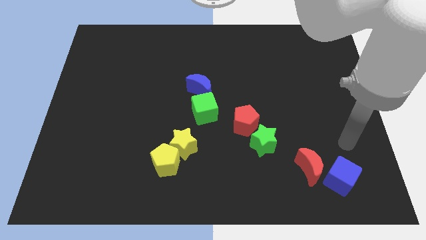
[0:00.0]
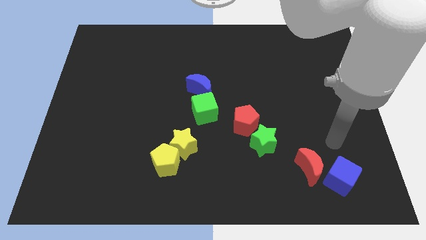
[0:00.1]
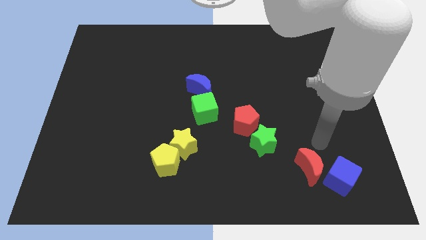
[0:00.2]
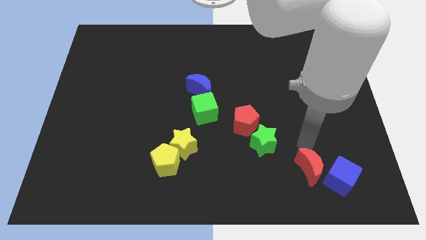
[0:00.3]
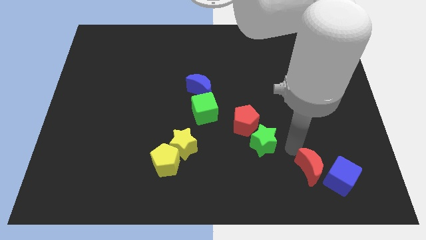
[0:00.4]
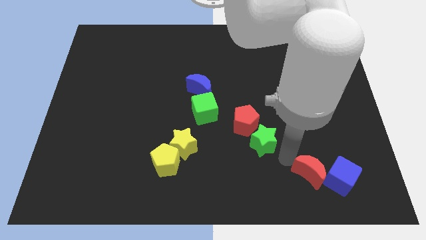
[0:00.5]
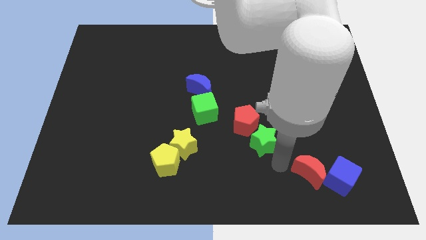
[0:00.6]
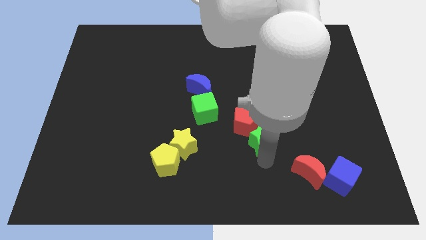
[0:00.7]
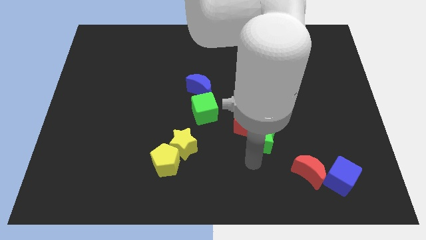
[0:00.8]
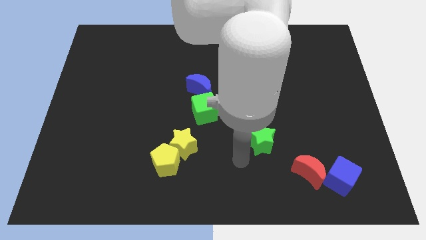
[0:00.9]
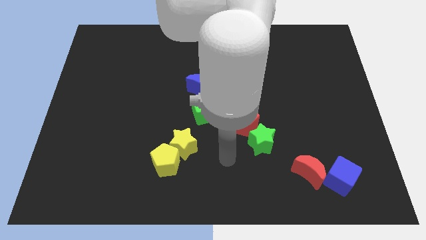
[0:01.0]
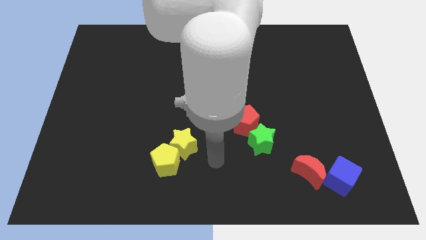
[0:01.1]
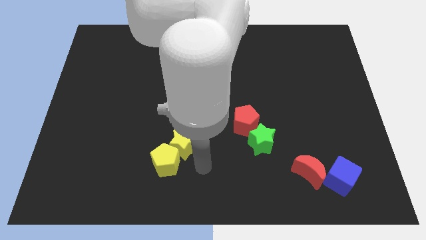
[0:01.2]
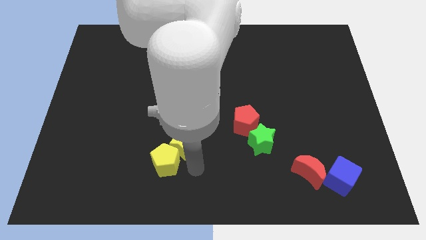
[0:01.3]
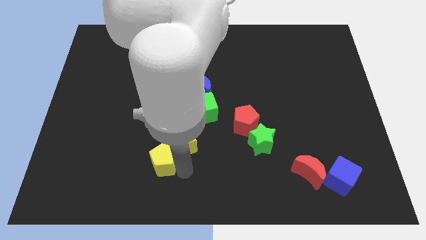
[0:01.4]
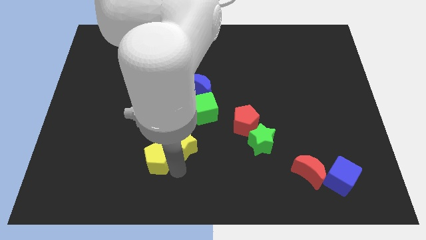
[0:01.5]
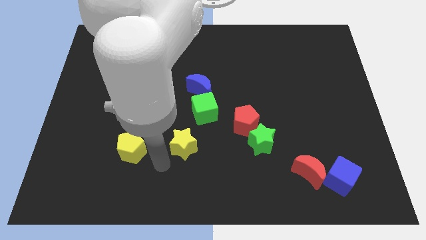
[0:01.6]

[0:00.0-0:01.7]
separate the yellow star from the yellow pentagon

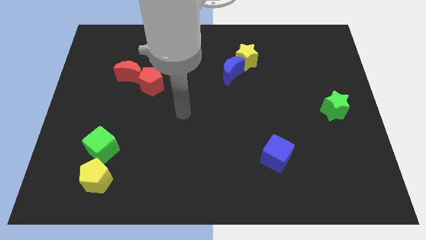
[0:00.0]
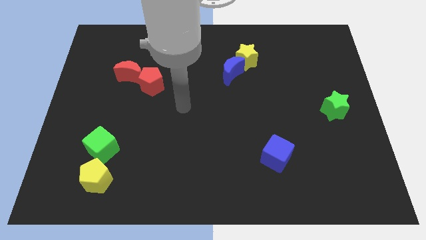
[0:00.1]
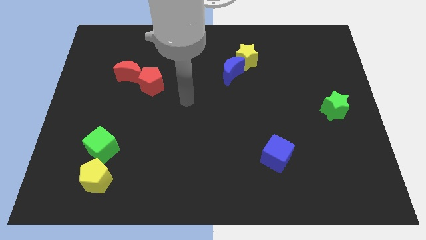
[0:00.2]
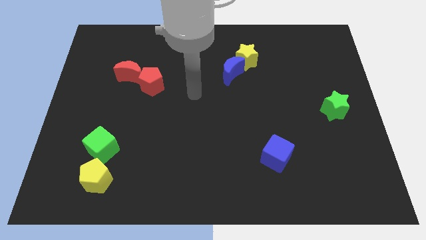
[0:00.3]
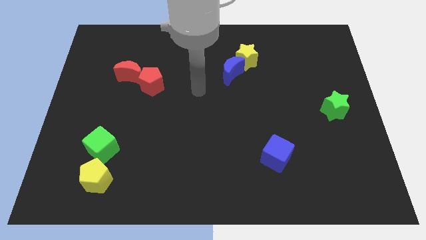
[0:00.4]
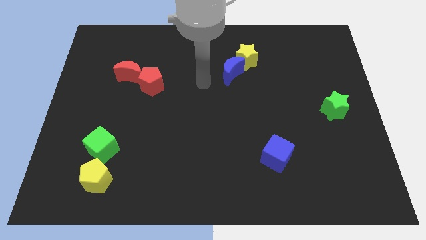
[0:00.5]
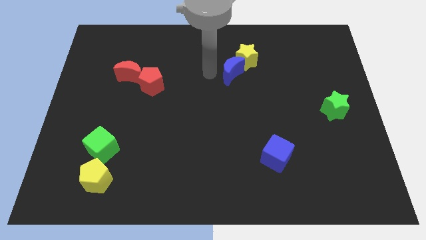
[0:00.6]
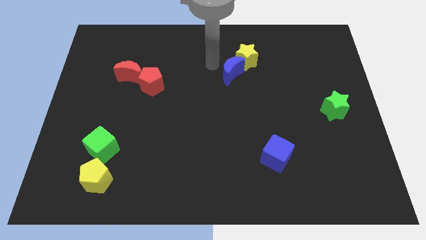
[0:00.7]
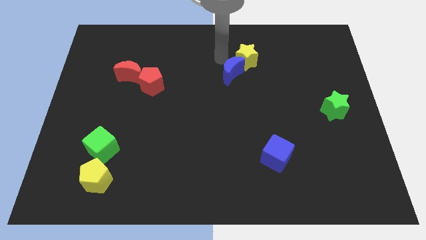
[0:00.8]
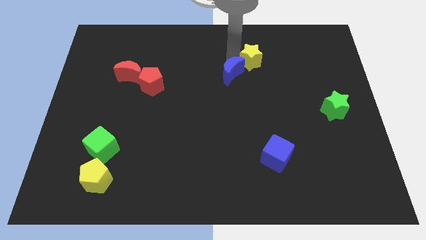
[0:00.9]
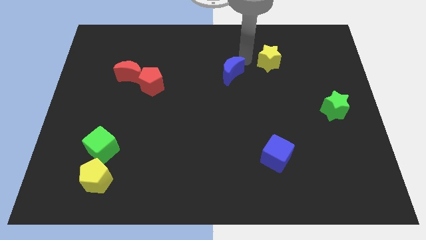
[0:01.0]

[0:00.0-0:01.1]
move the blue moon away from the yellow star

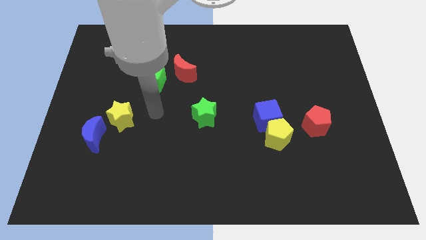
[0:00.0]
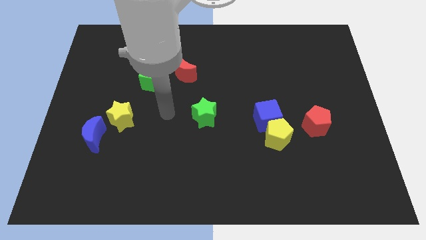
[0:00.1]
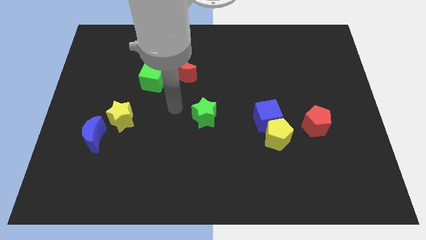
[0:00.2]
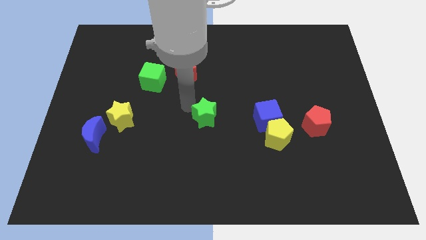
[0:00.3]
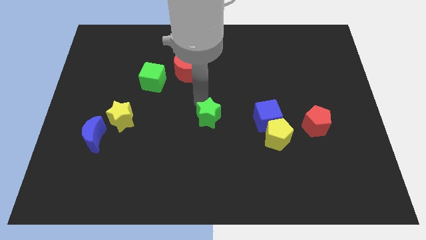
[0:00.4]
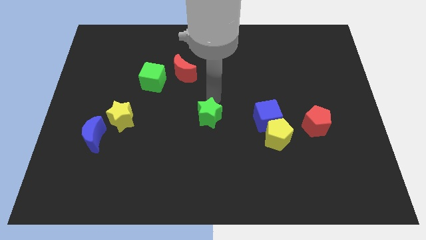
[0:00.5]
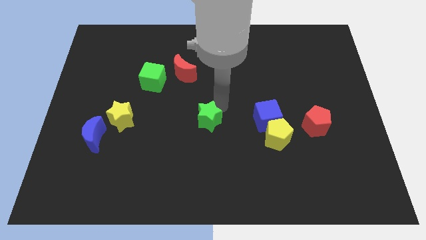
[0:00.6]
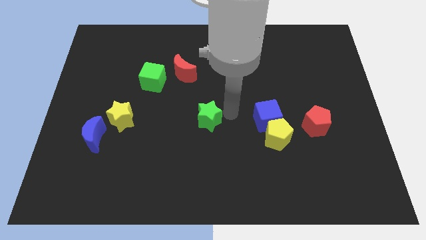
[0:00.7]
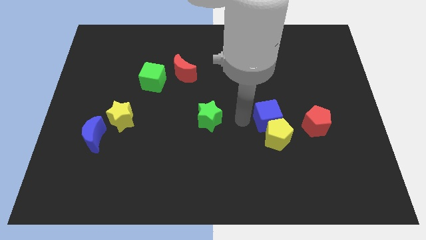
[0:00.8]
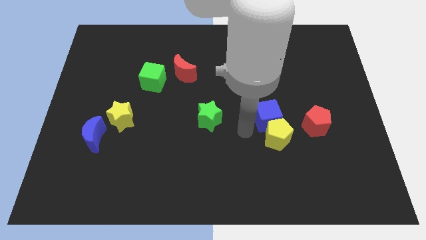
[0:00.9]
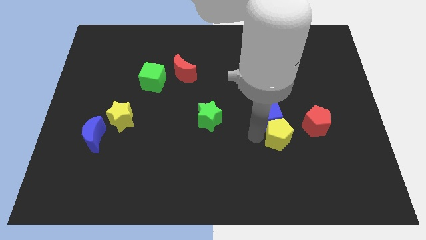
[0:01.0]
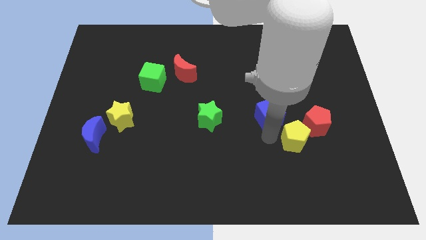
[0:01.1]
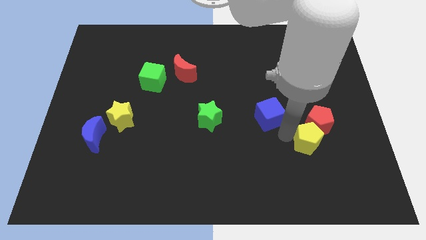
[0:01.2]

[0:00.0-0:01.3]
move the blue cube away from the yellow pentagon

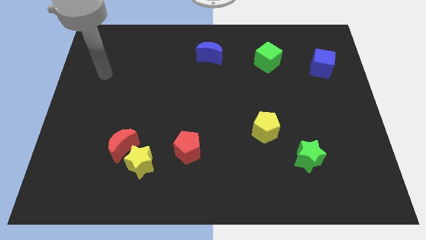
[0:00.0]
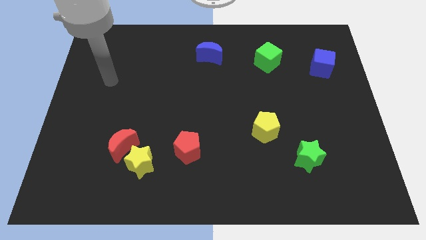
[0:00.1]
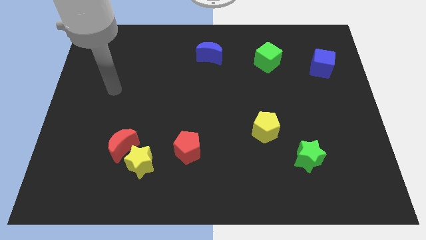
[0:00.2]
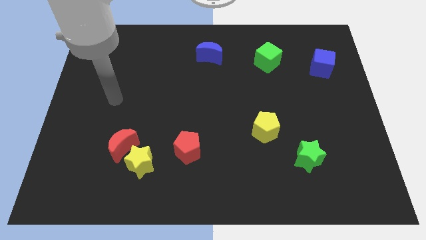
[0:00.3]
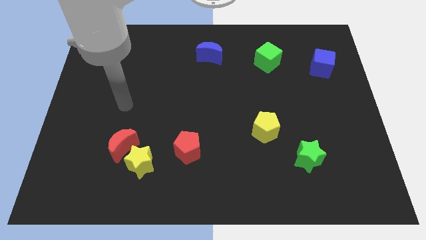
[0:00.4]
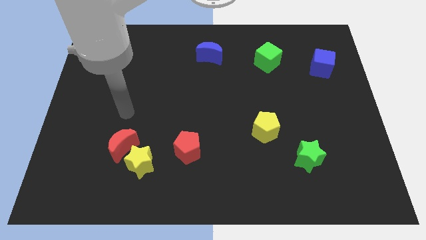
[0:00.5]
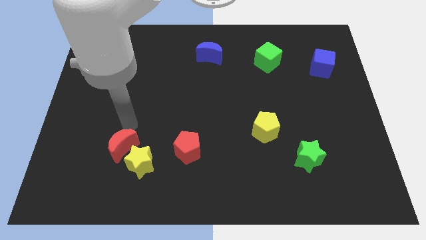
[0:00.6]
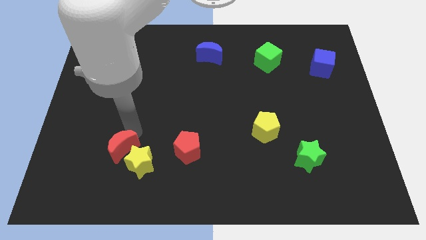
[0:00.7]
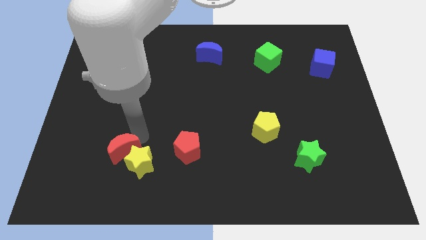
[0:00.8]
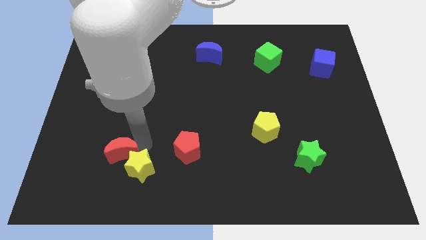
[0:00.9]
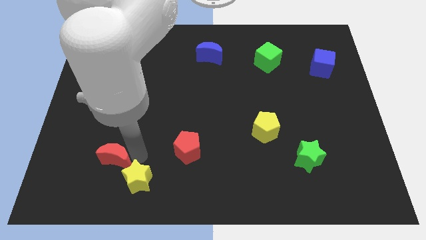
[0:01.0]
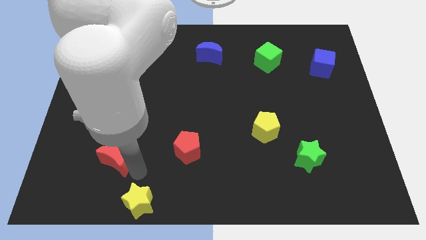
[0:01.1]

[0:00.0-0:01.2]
pull the red moon apart from the yellow star

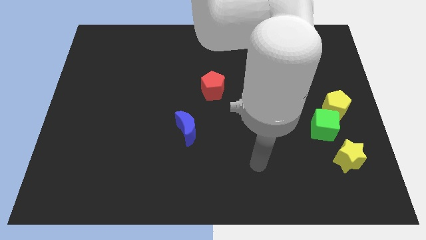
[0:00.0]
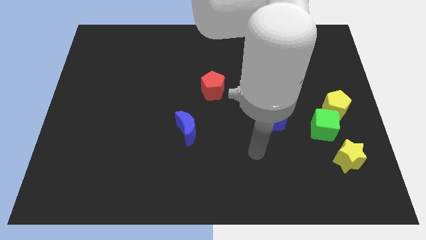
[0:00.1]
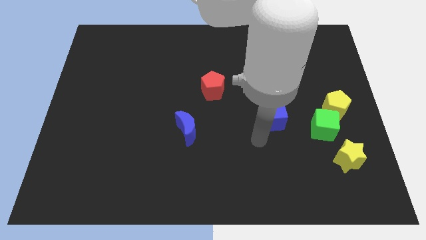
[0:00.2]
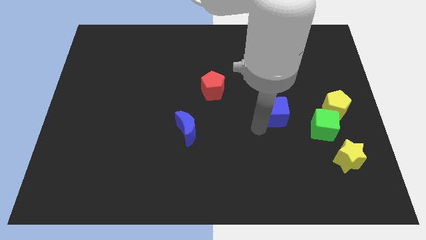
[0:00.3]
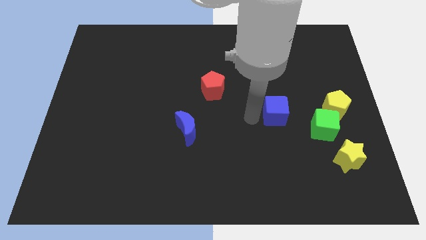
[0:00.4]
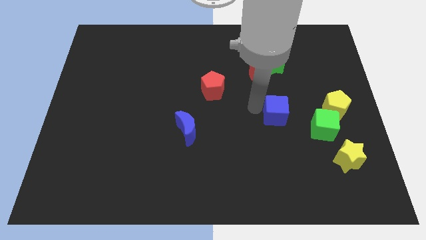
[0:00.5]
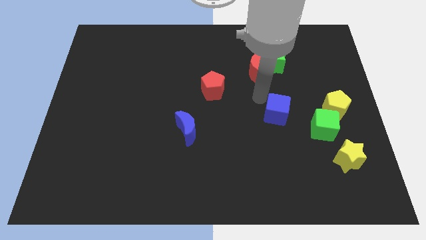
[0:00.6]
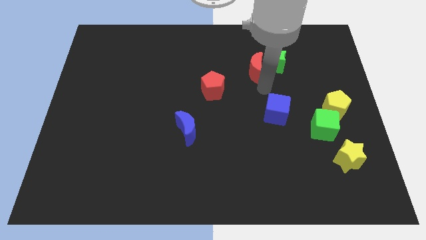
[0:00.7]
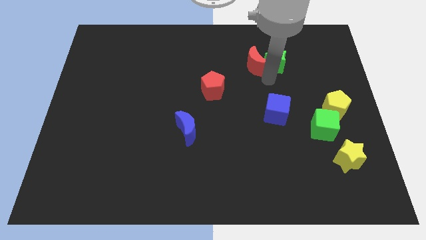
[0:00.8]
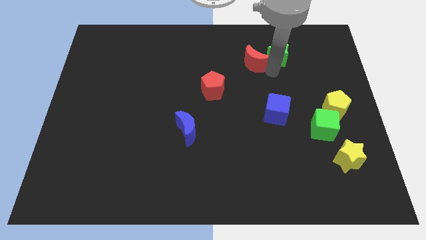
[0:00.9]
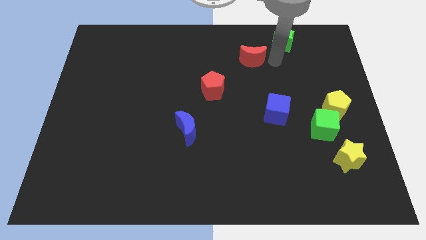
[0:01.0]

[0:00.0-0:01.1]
move the red moon away from the green star

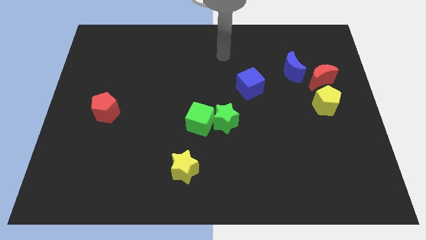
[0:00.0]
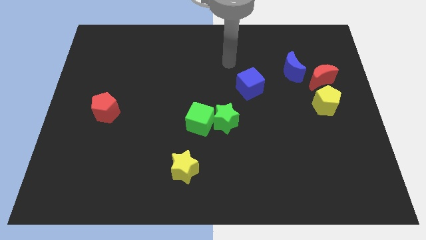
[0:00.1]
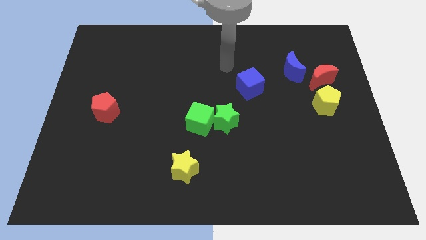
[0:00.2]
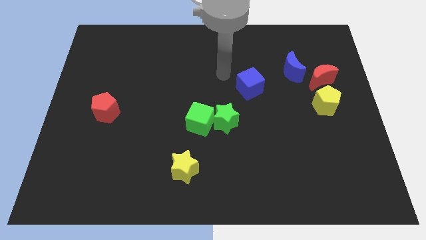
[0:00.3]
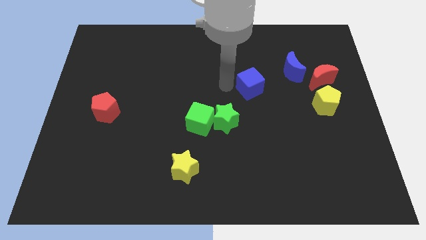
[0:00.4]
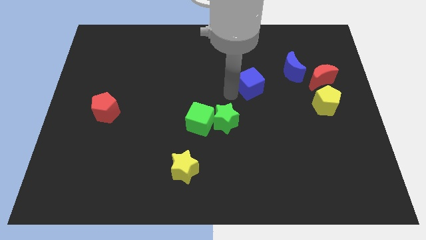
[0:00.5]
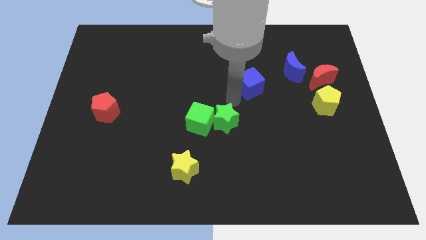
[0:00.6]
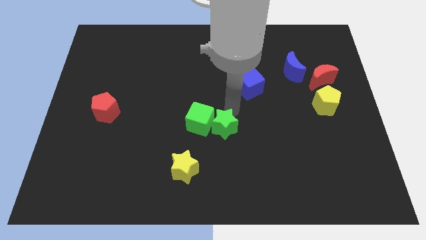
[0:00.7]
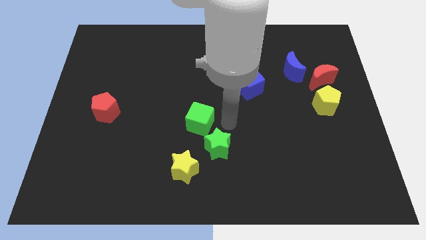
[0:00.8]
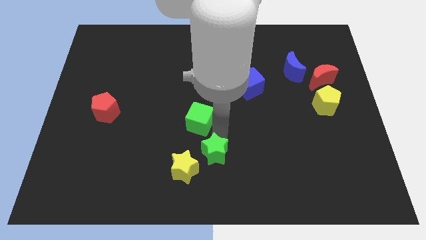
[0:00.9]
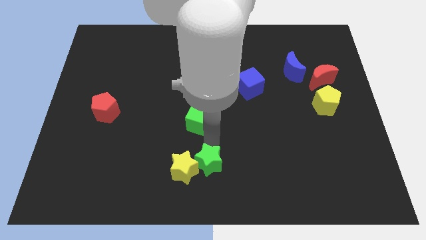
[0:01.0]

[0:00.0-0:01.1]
move the green cube away from the green star

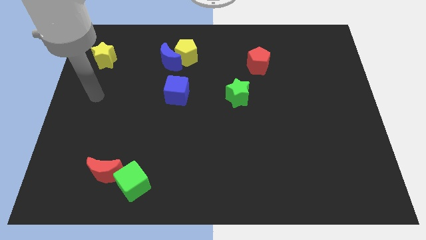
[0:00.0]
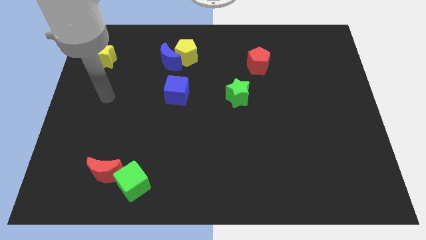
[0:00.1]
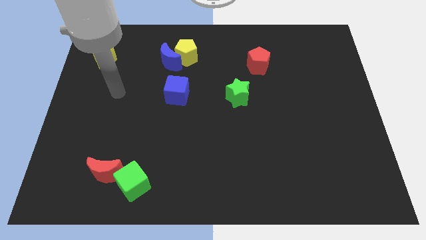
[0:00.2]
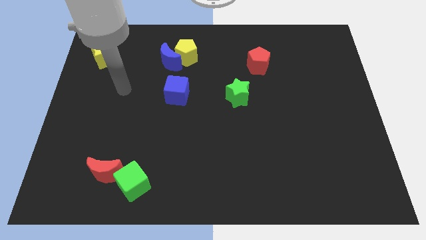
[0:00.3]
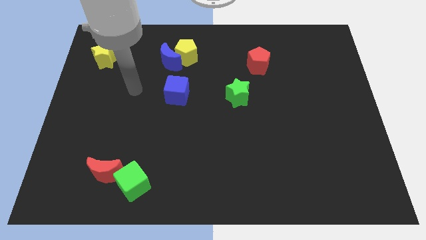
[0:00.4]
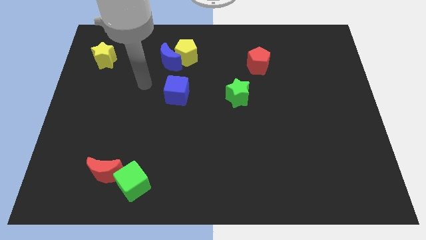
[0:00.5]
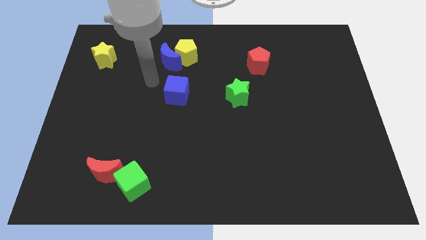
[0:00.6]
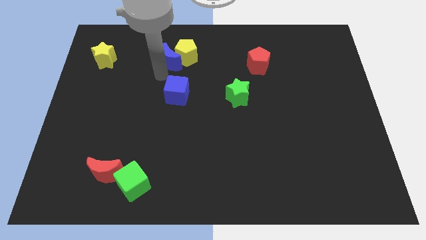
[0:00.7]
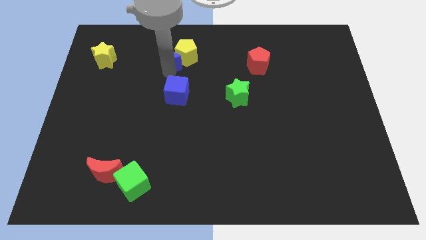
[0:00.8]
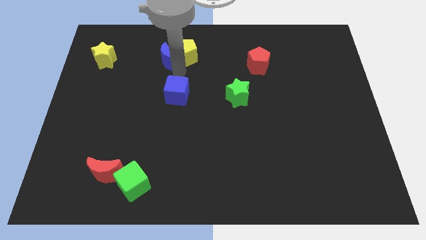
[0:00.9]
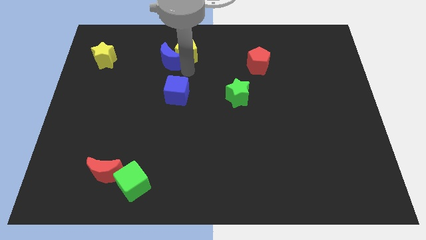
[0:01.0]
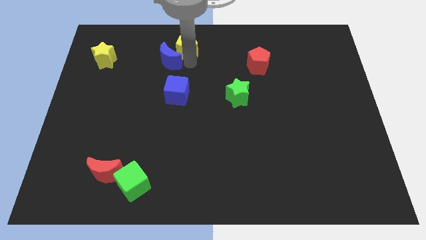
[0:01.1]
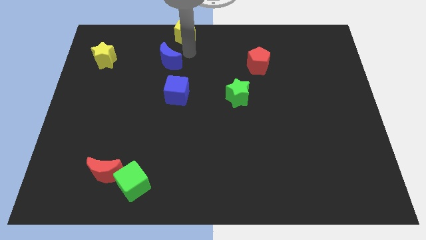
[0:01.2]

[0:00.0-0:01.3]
move the blue moon away from the yellow pentagon

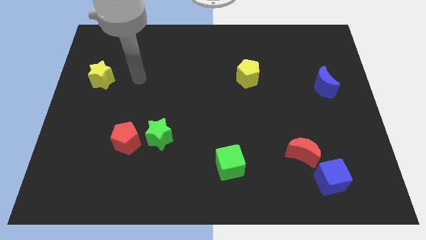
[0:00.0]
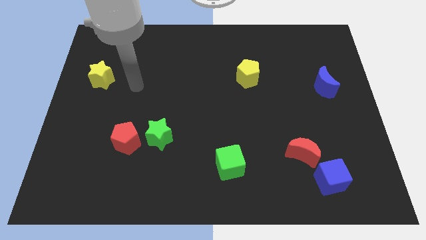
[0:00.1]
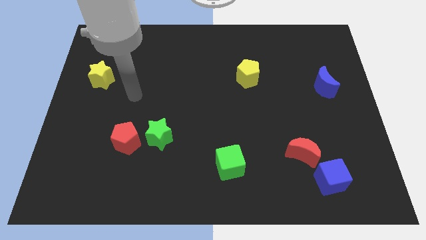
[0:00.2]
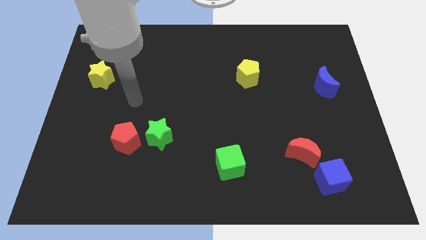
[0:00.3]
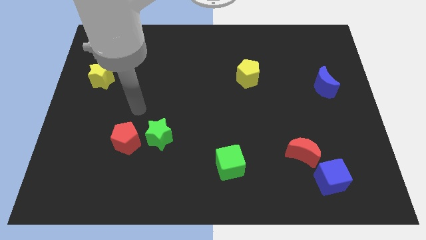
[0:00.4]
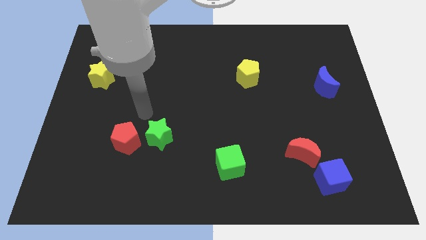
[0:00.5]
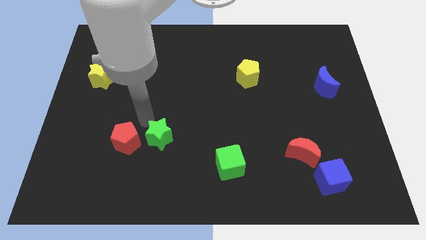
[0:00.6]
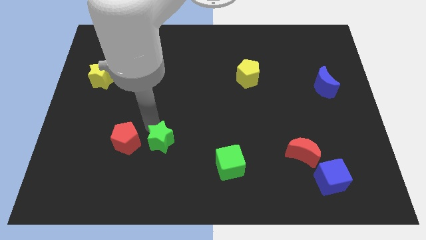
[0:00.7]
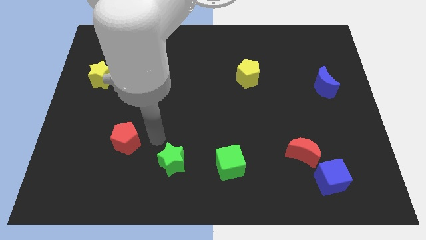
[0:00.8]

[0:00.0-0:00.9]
pull the red pentagon apart from the green star
